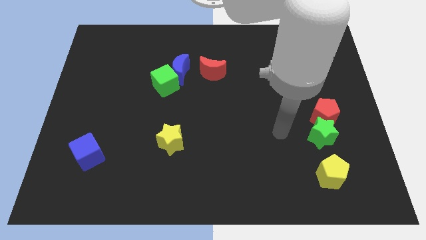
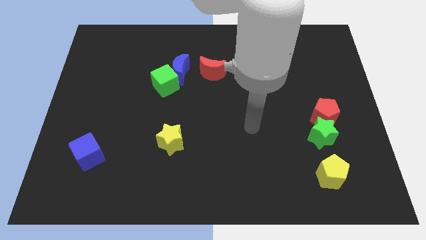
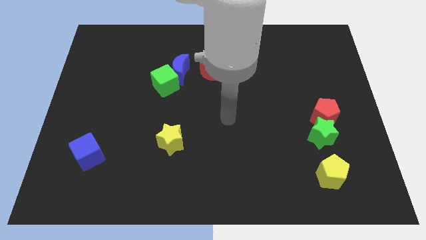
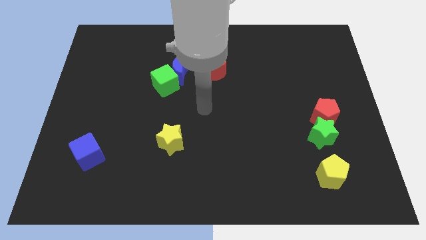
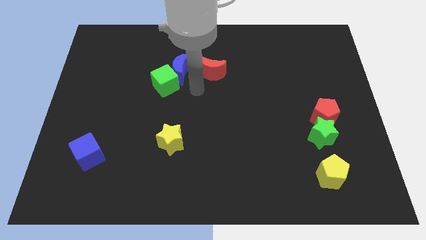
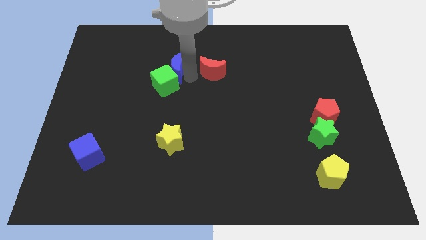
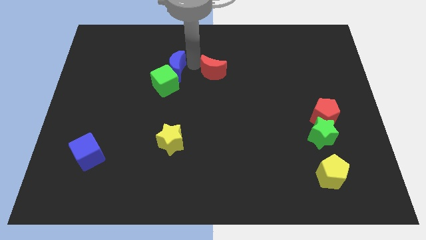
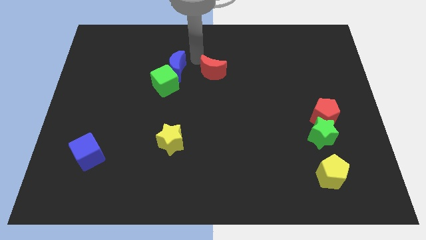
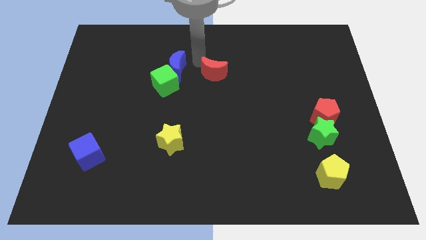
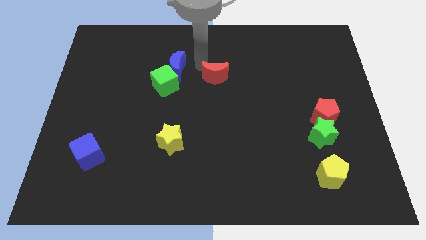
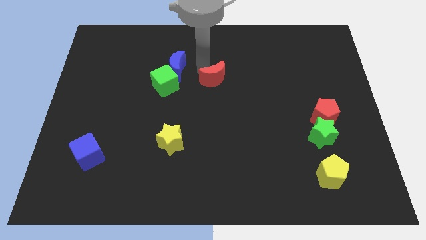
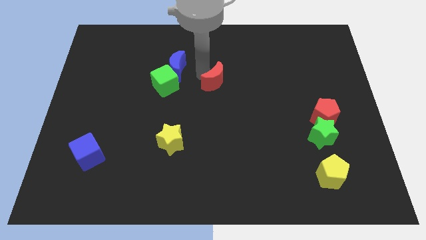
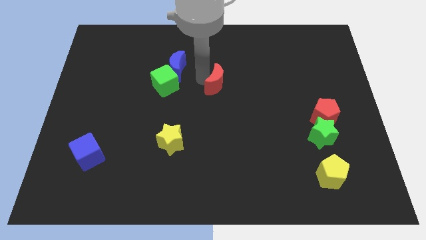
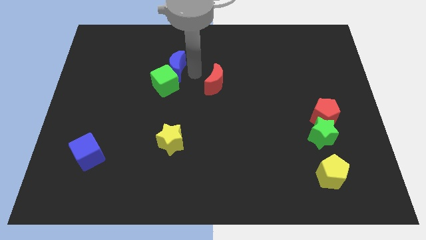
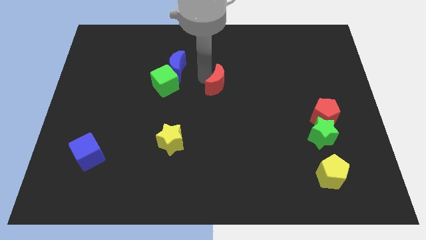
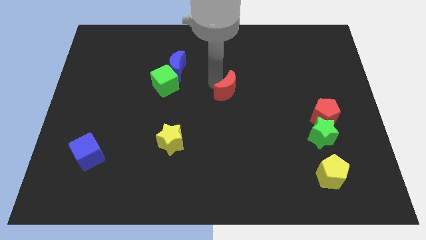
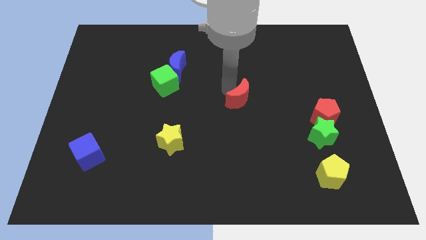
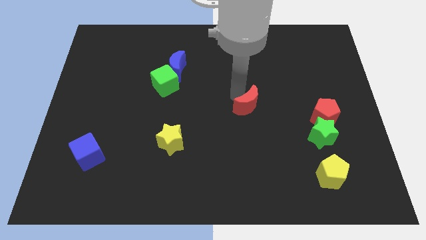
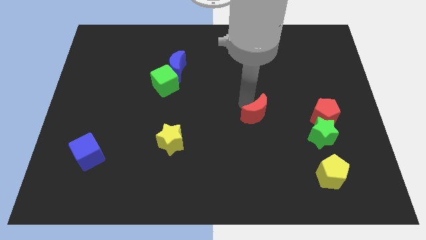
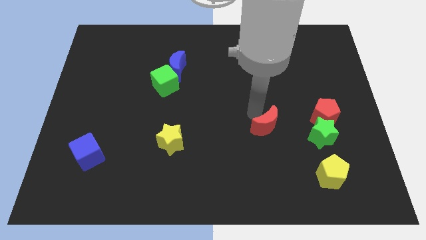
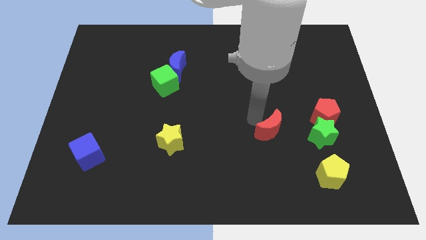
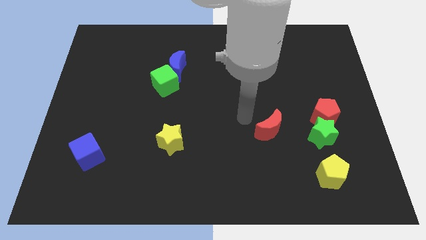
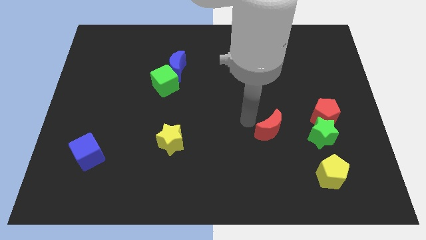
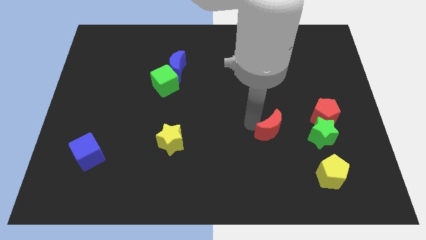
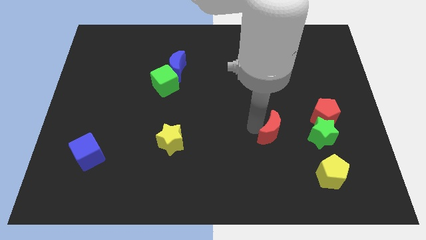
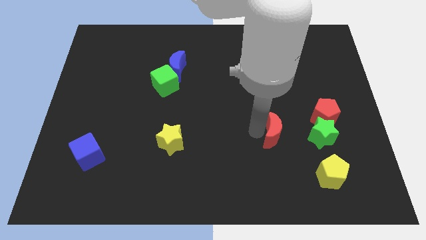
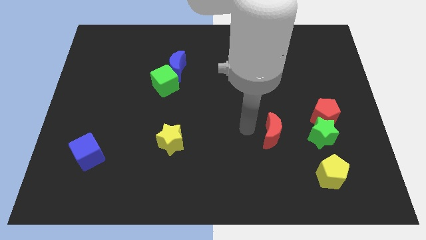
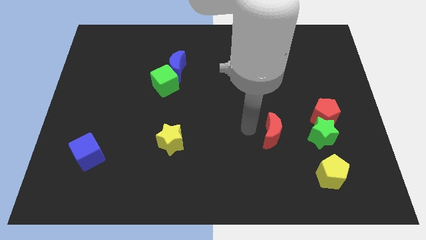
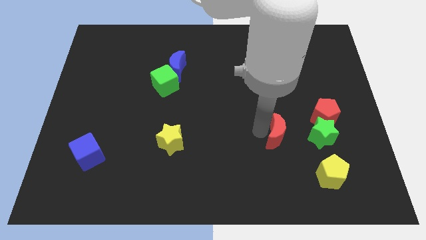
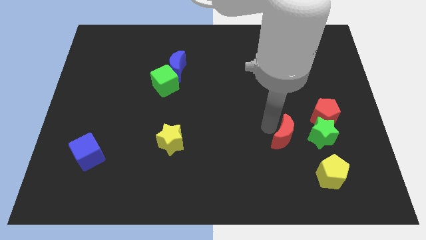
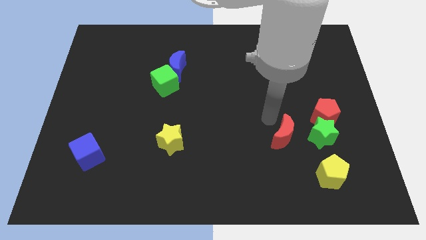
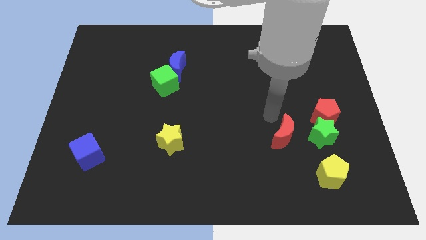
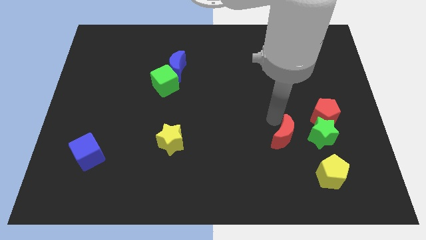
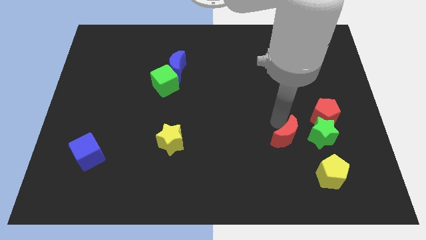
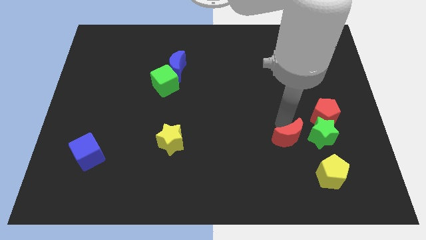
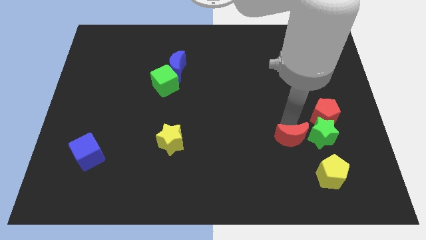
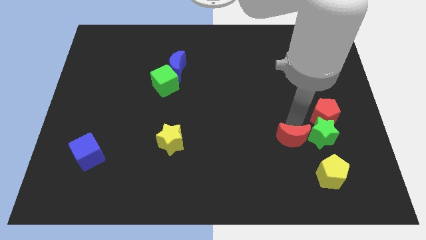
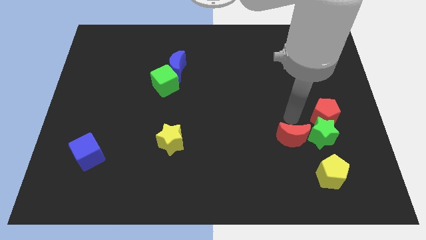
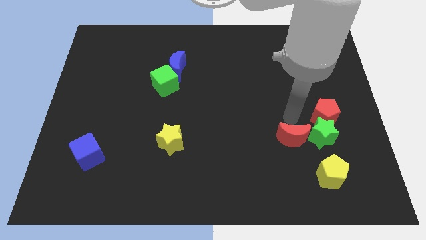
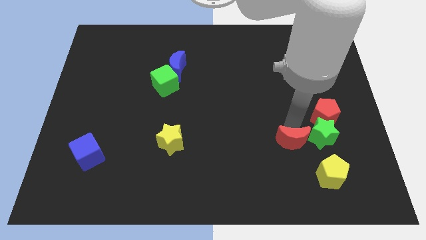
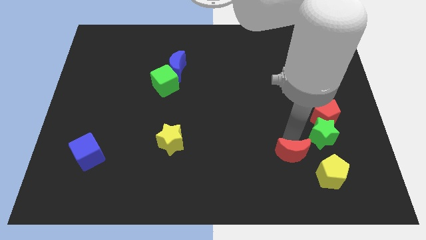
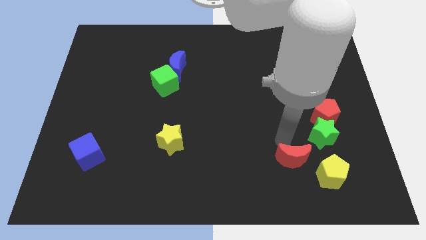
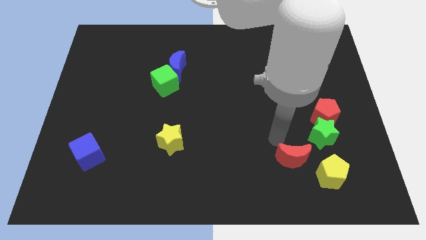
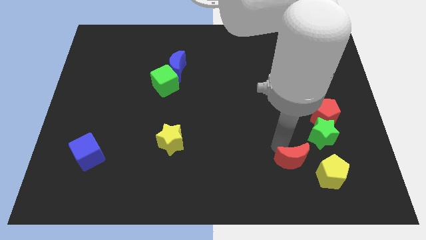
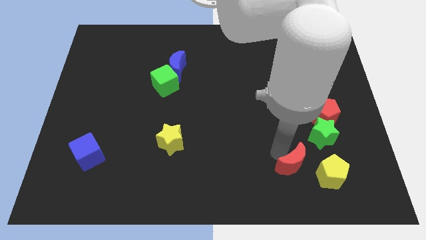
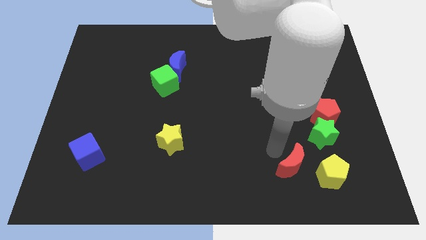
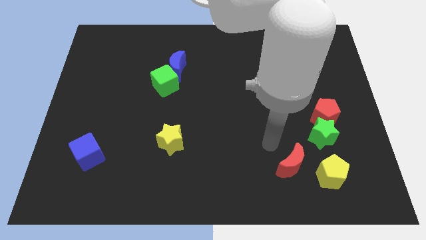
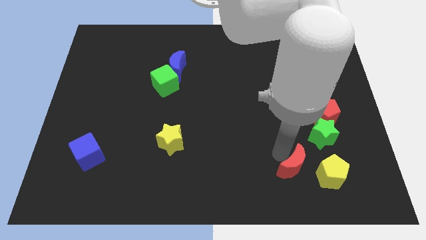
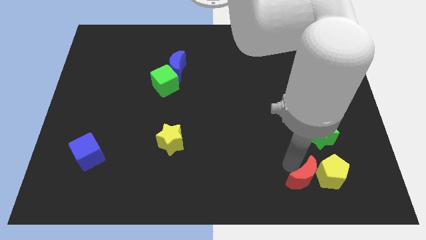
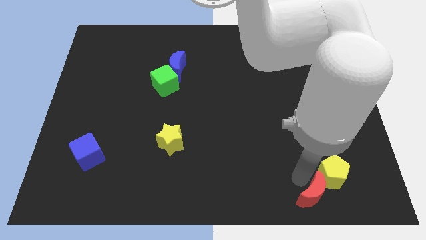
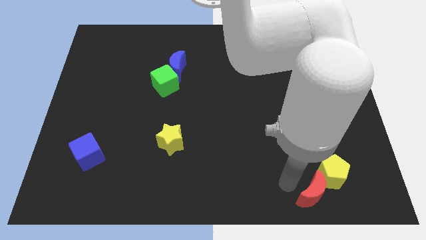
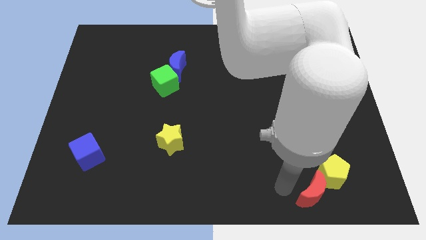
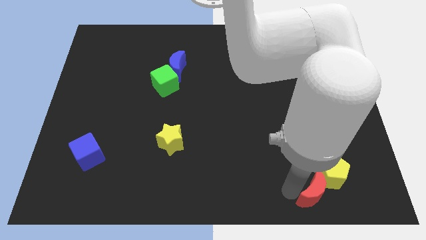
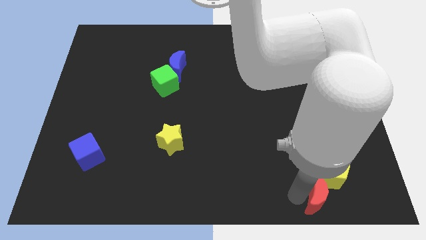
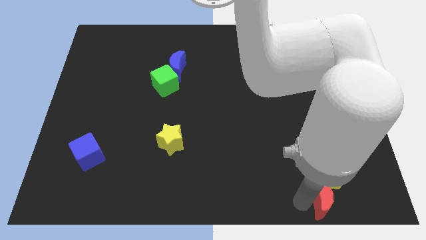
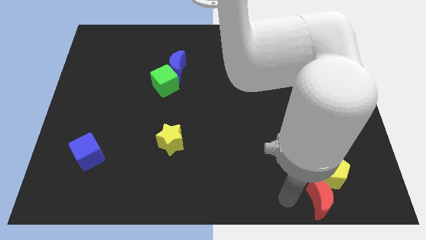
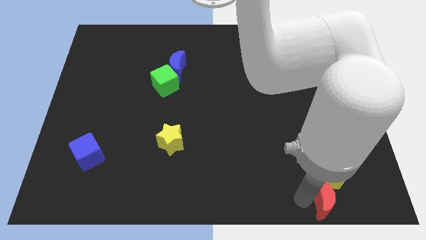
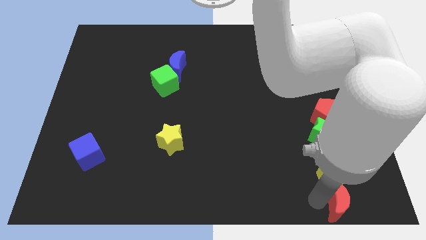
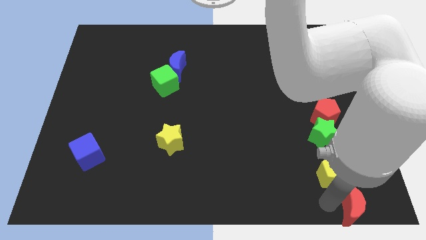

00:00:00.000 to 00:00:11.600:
put the red moon to the bottom right

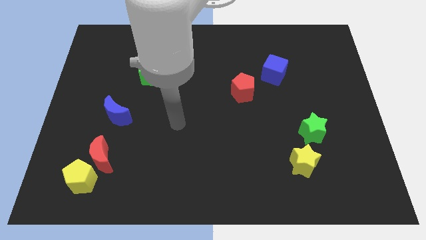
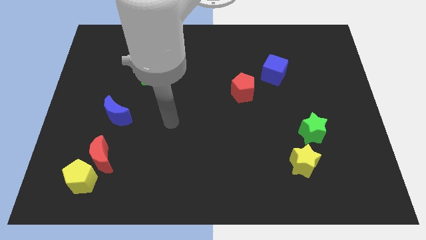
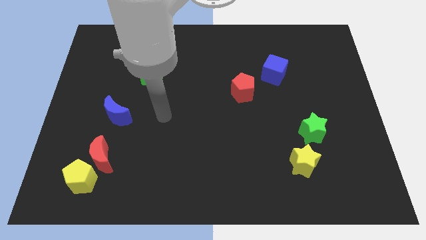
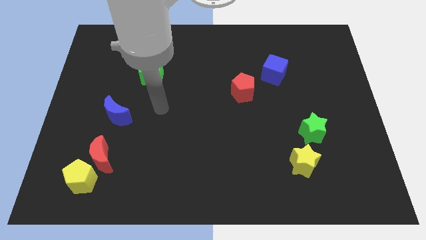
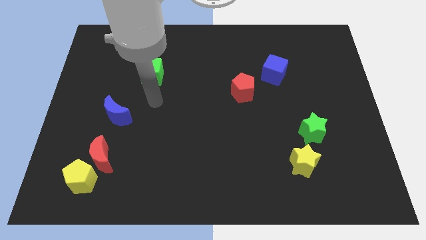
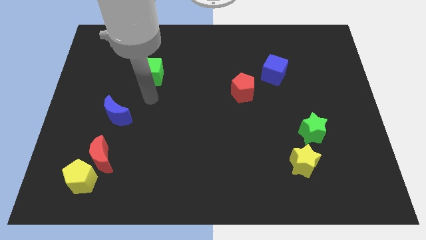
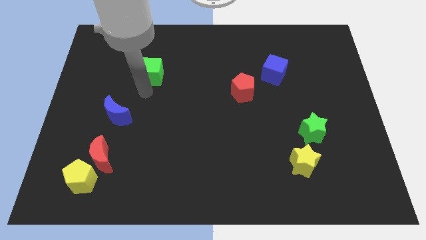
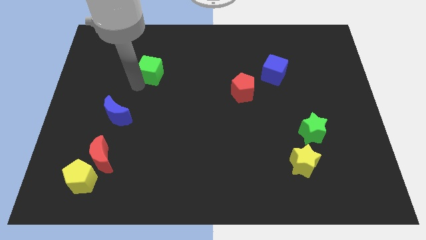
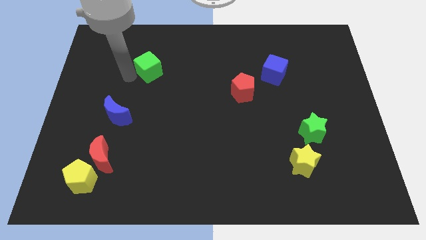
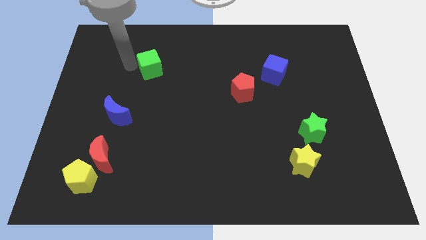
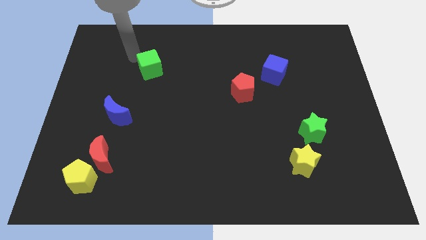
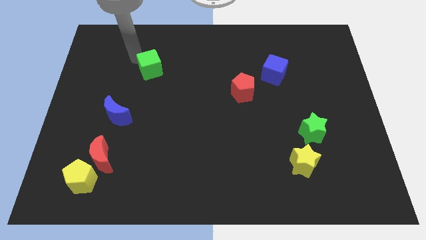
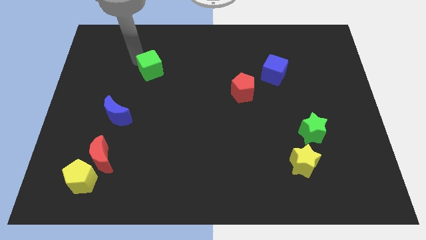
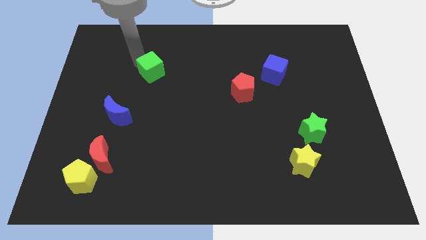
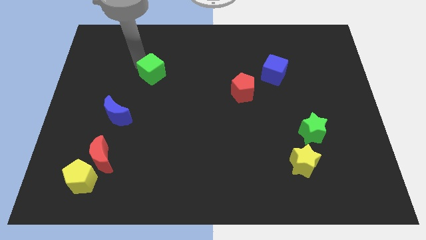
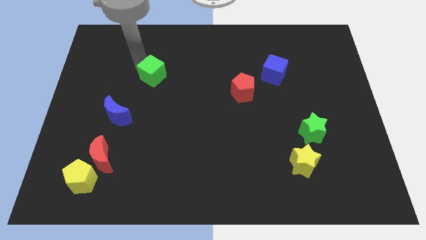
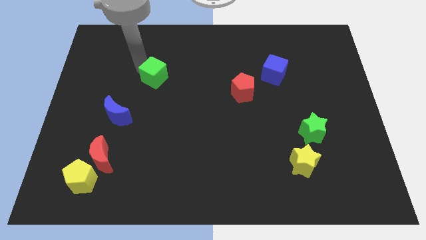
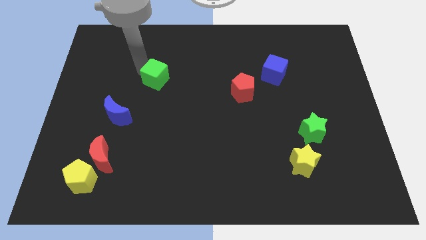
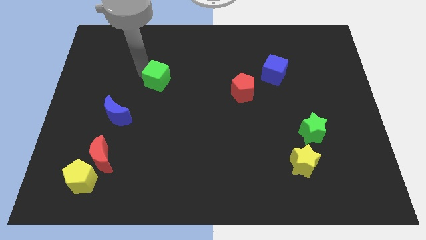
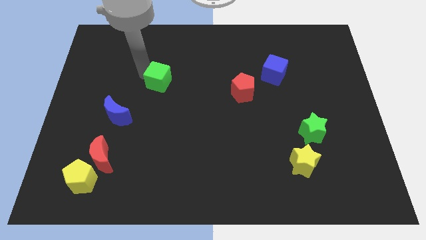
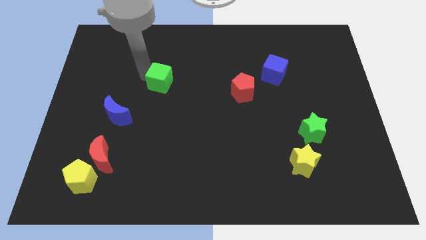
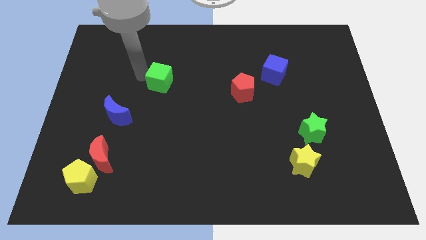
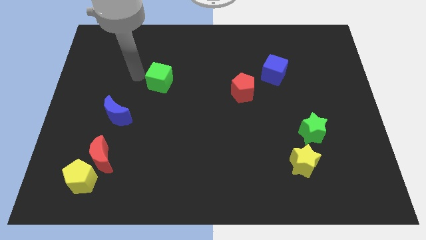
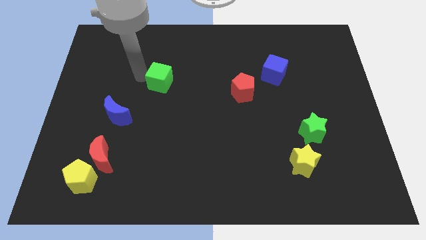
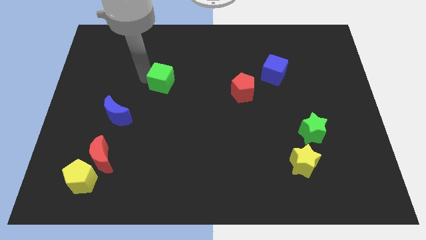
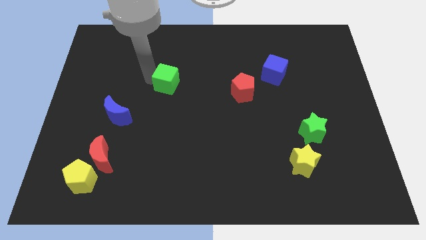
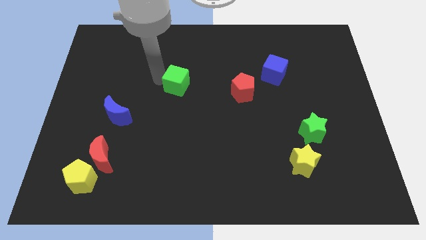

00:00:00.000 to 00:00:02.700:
put the green cube to the center
